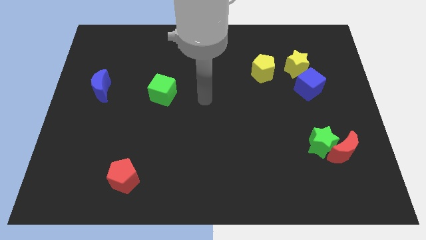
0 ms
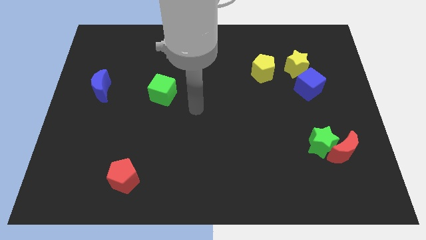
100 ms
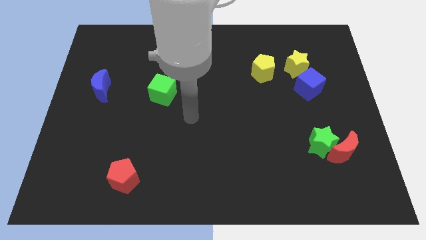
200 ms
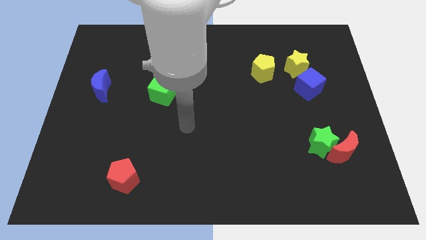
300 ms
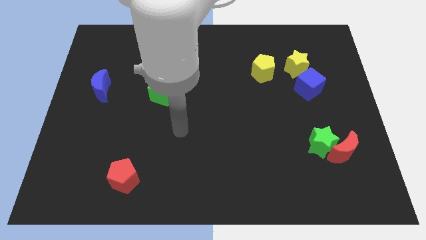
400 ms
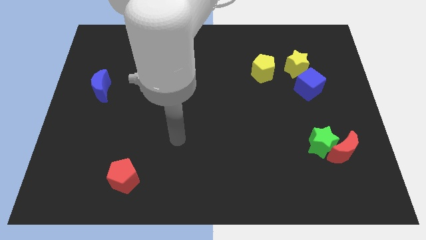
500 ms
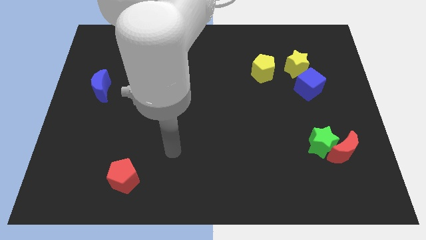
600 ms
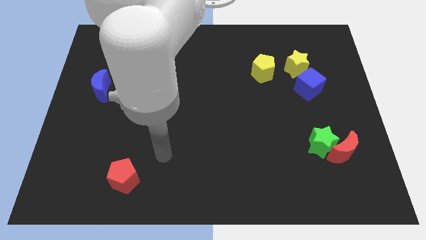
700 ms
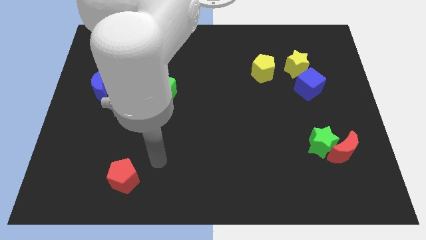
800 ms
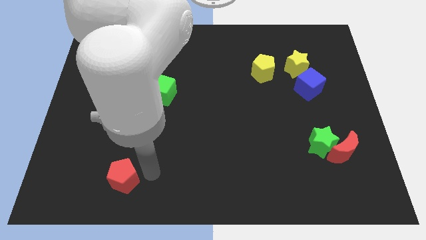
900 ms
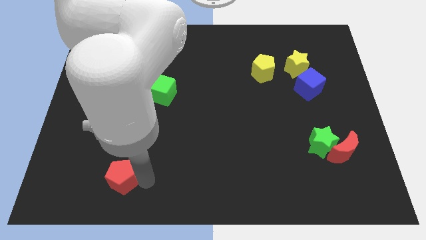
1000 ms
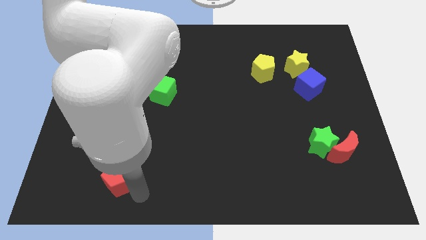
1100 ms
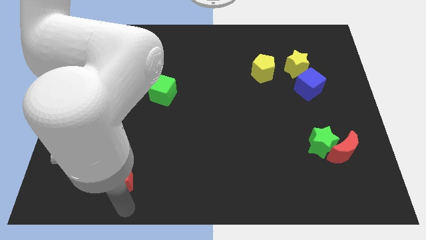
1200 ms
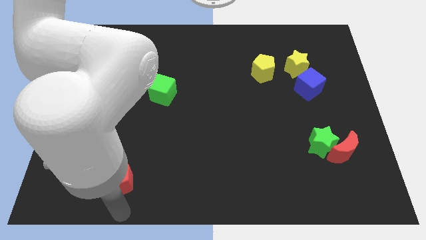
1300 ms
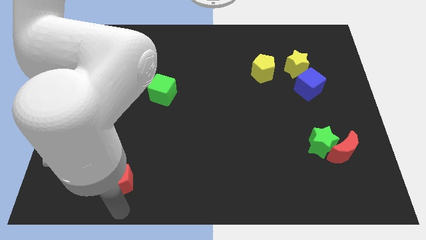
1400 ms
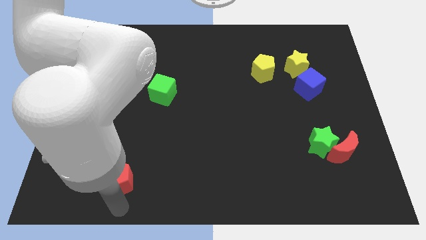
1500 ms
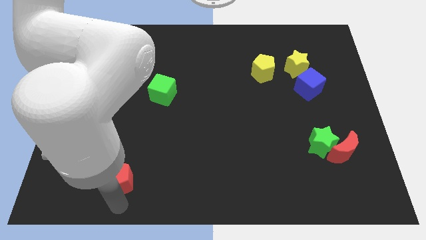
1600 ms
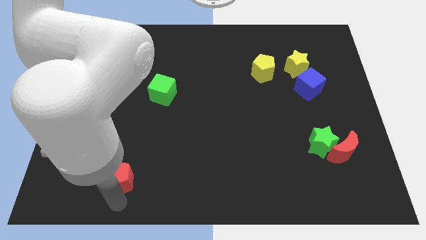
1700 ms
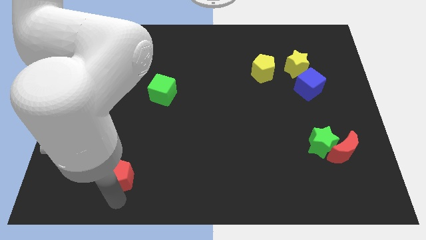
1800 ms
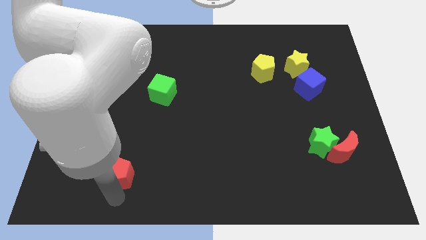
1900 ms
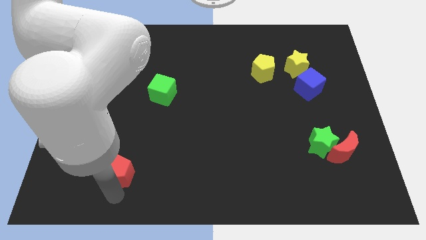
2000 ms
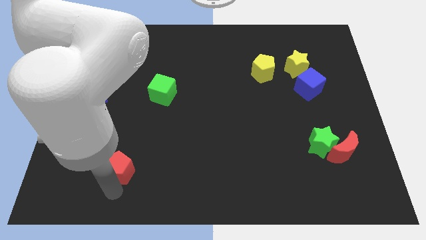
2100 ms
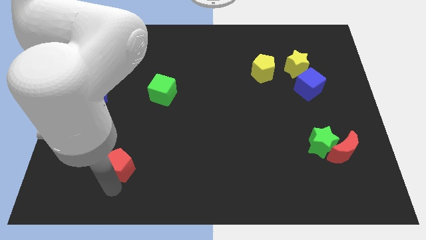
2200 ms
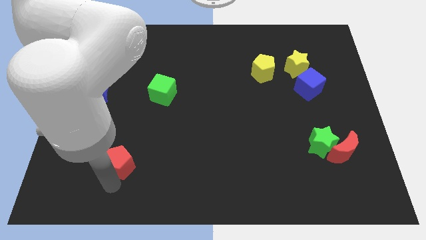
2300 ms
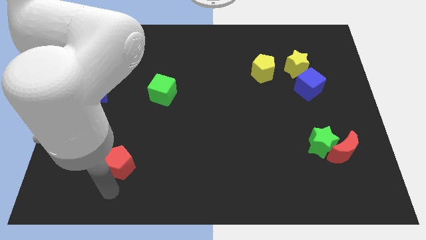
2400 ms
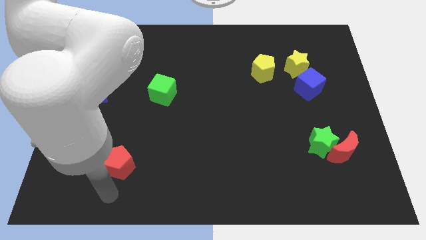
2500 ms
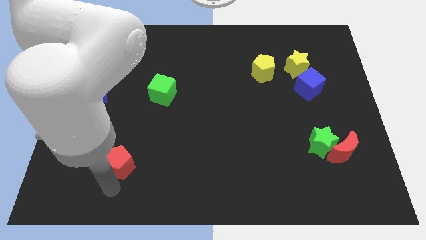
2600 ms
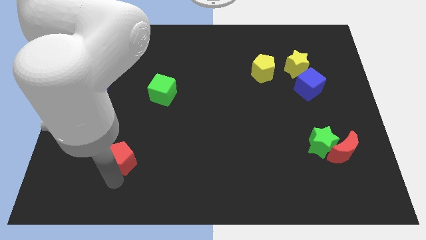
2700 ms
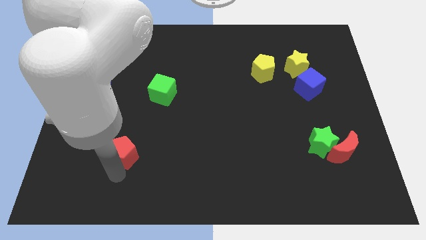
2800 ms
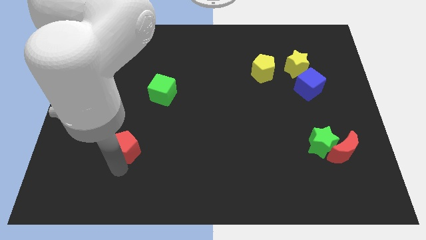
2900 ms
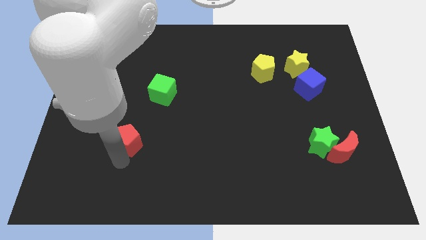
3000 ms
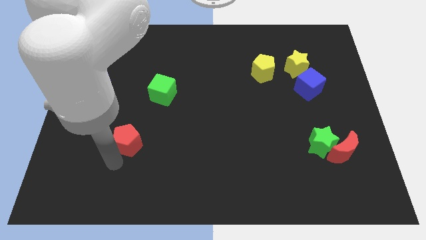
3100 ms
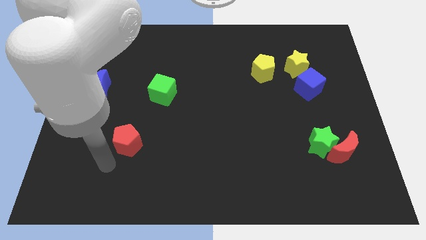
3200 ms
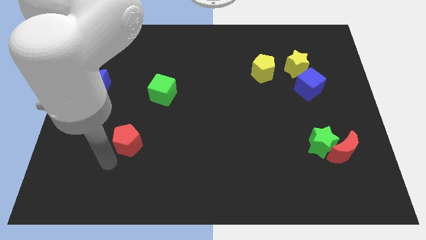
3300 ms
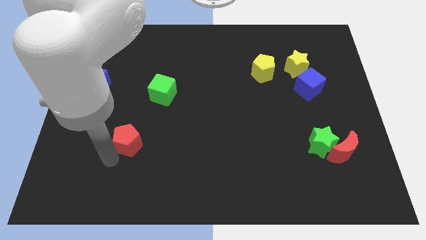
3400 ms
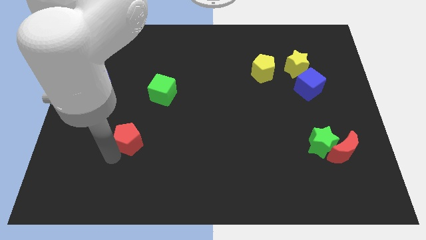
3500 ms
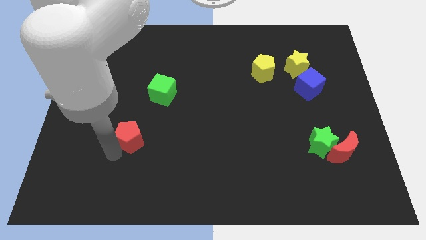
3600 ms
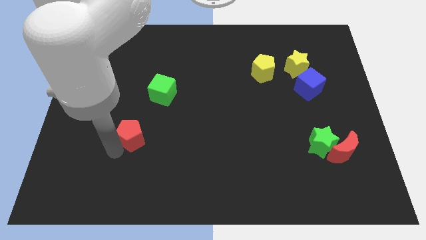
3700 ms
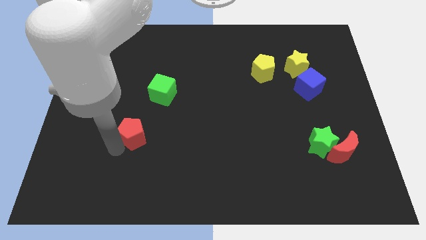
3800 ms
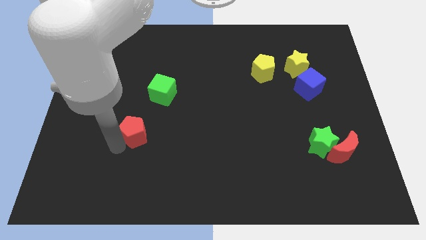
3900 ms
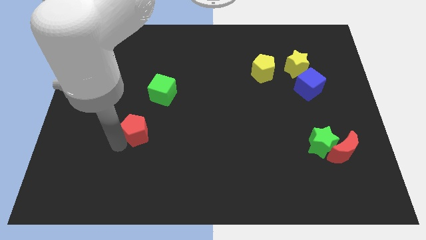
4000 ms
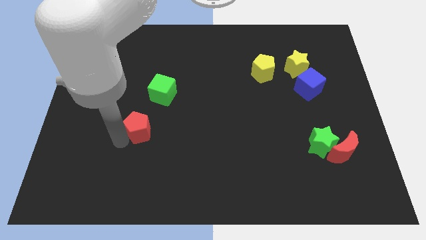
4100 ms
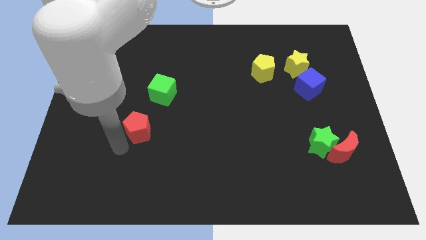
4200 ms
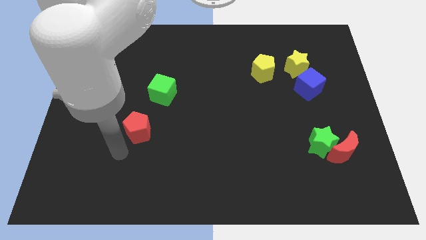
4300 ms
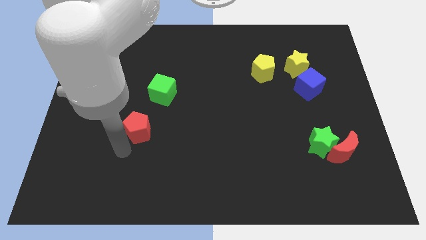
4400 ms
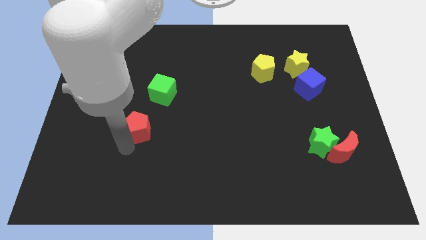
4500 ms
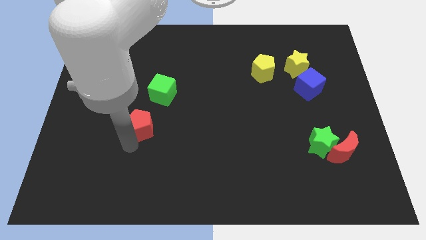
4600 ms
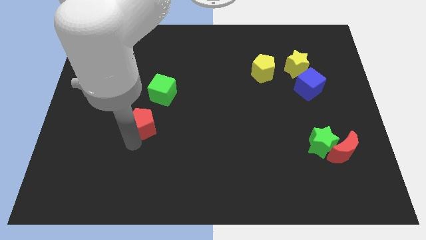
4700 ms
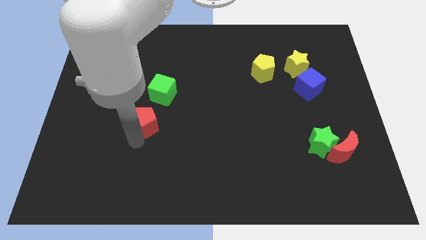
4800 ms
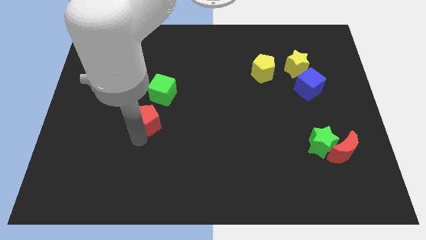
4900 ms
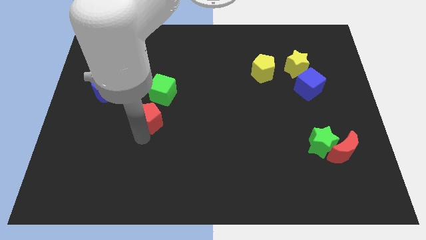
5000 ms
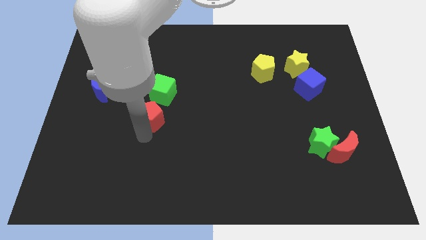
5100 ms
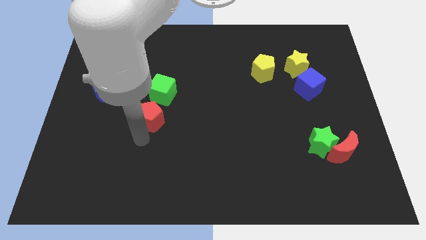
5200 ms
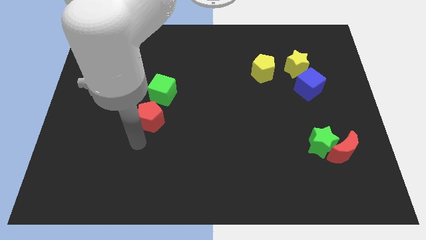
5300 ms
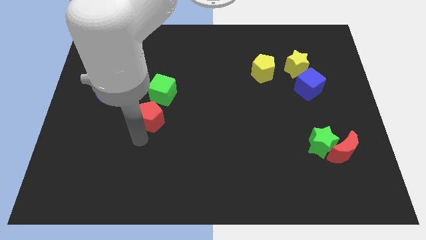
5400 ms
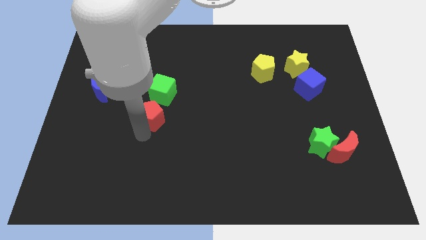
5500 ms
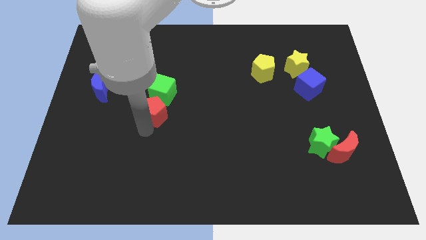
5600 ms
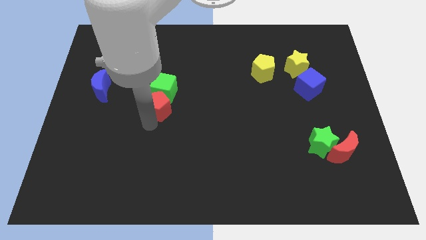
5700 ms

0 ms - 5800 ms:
push the red pentagon to the green cube

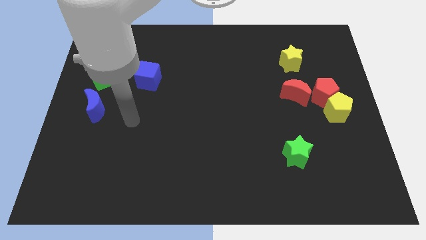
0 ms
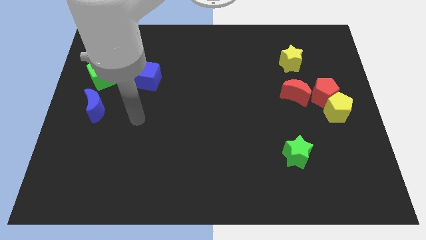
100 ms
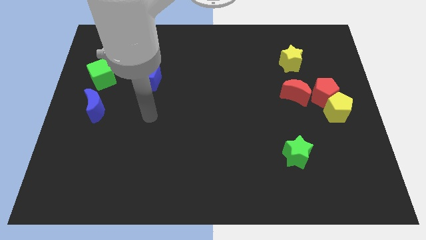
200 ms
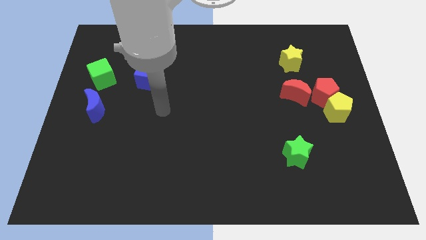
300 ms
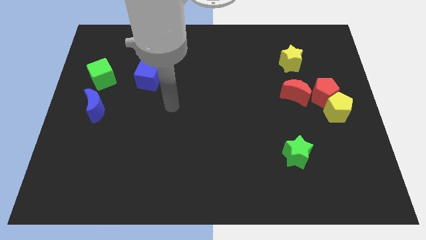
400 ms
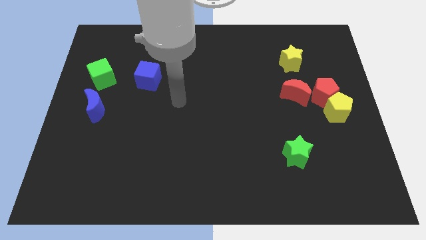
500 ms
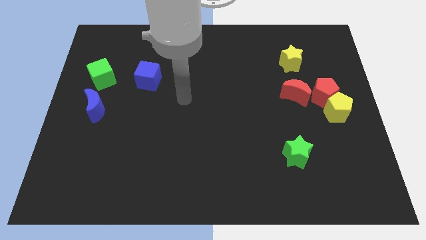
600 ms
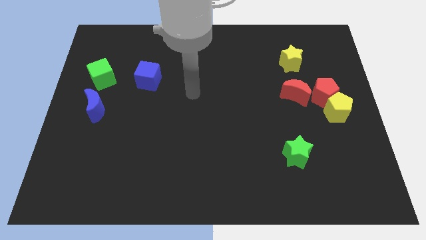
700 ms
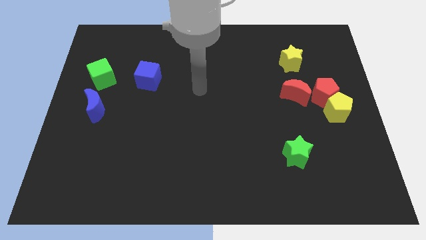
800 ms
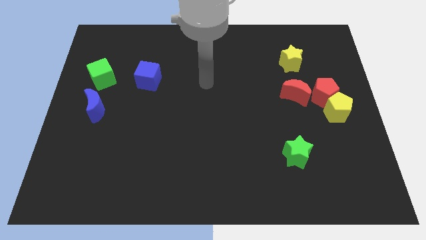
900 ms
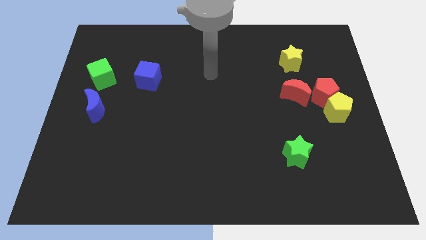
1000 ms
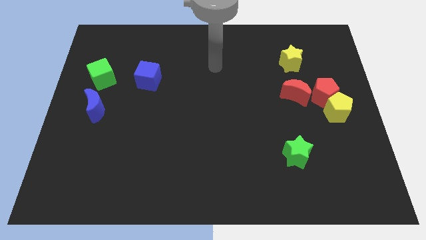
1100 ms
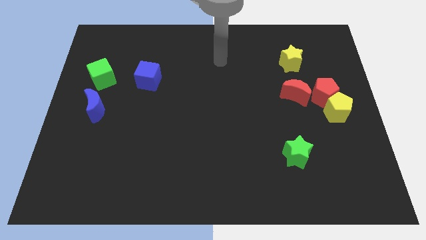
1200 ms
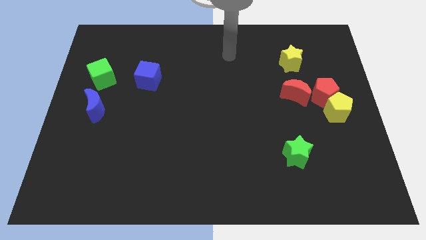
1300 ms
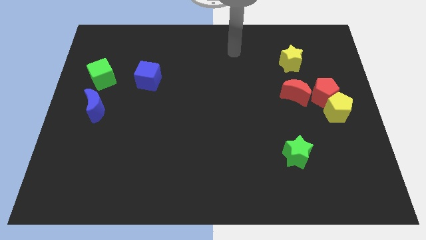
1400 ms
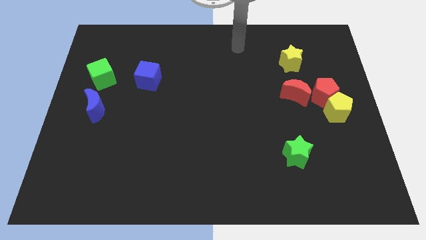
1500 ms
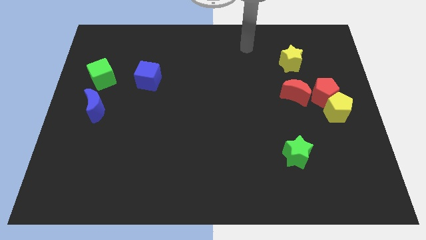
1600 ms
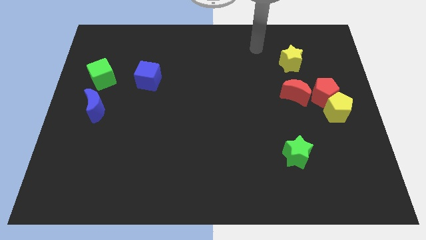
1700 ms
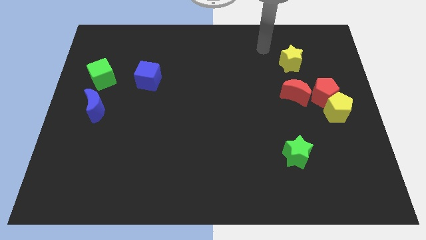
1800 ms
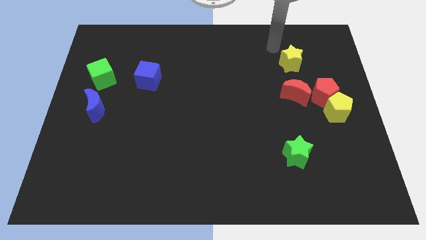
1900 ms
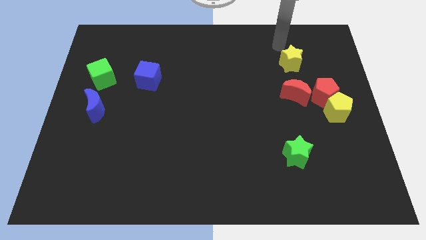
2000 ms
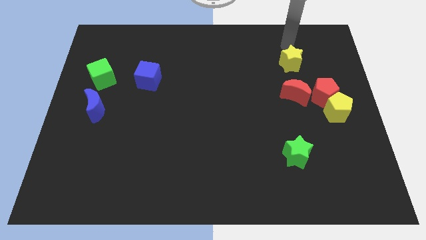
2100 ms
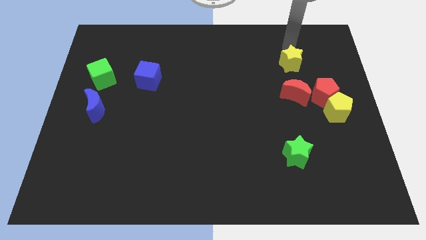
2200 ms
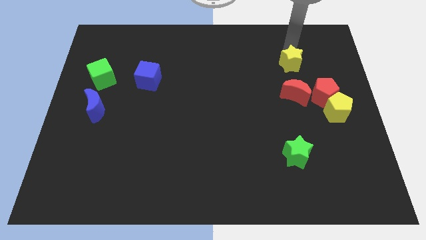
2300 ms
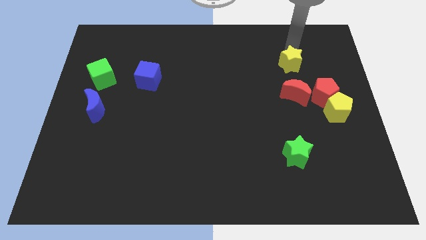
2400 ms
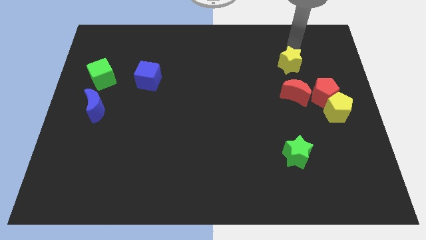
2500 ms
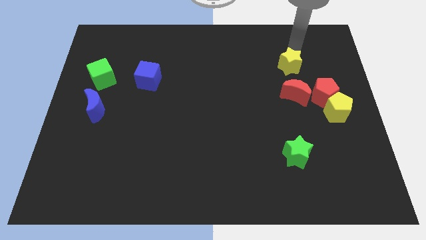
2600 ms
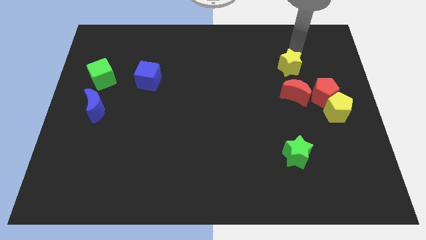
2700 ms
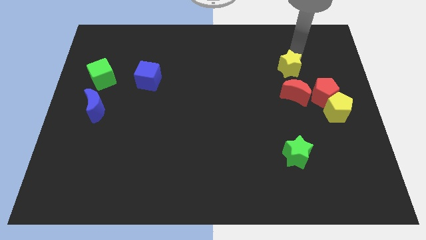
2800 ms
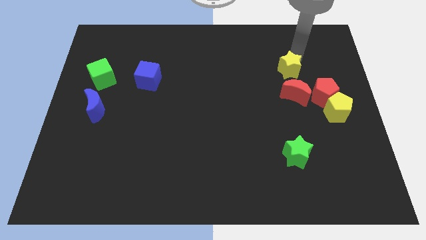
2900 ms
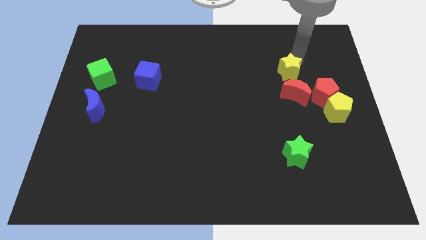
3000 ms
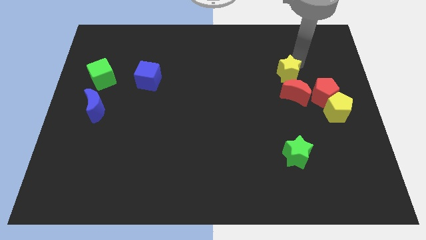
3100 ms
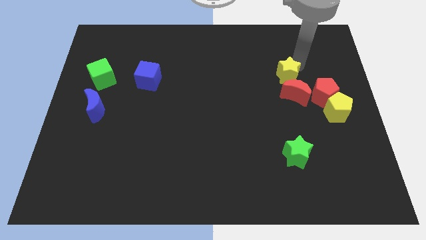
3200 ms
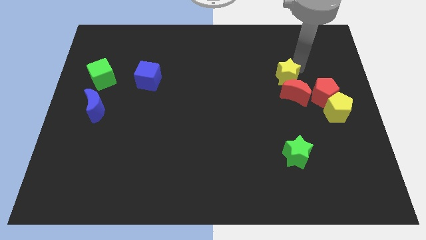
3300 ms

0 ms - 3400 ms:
put the yellow star to the red moon
